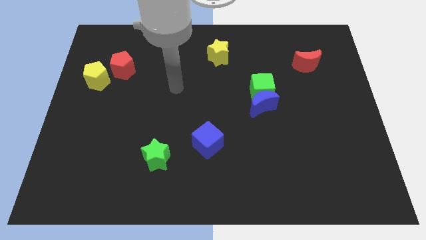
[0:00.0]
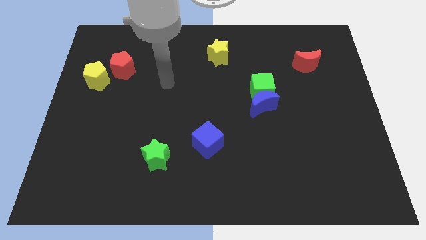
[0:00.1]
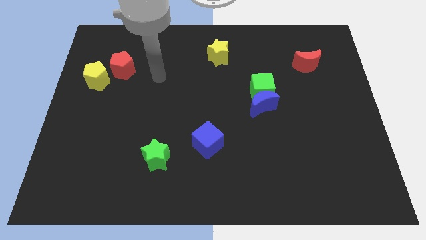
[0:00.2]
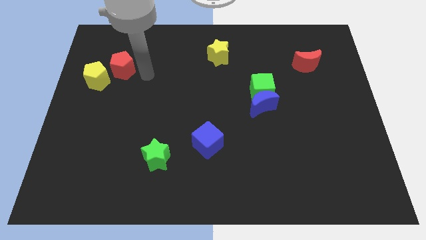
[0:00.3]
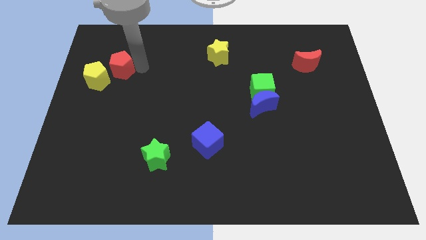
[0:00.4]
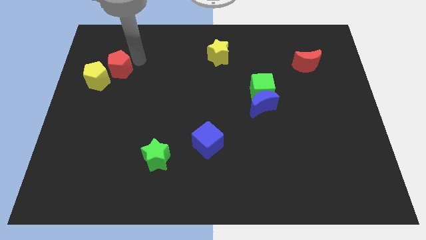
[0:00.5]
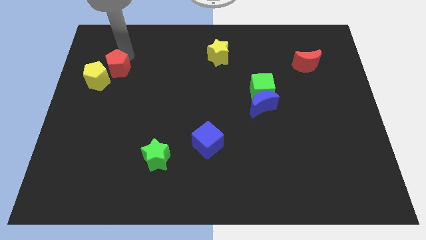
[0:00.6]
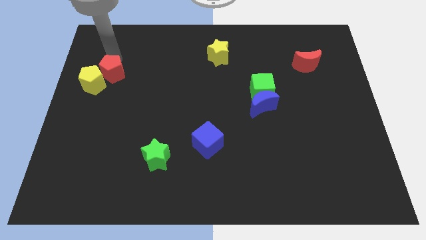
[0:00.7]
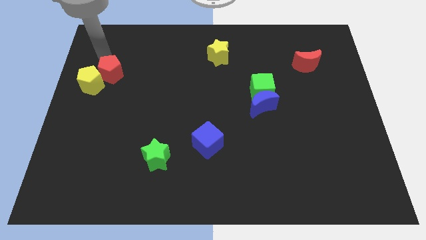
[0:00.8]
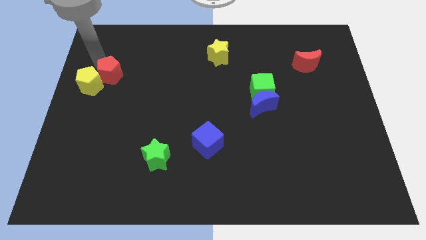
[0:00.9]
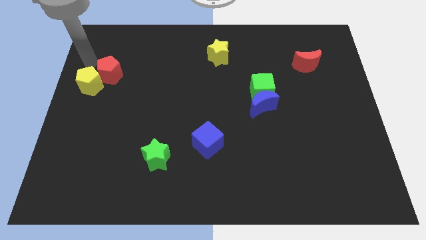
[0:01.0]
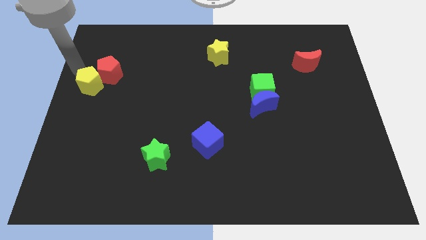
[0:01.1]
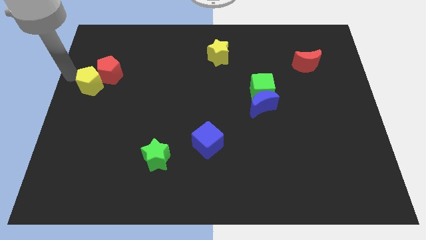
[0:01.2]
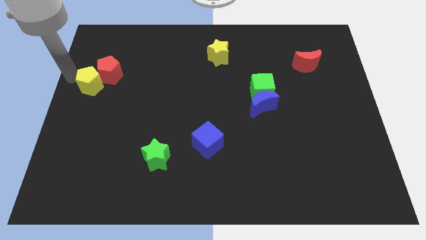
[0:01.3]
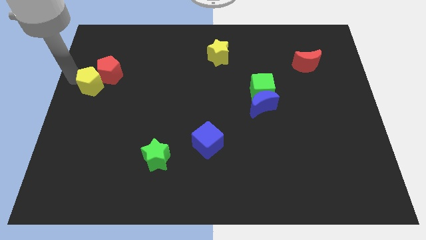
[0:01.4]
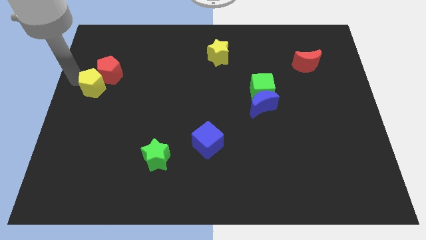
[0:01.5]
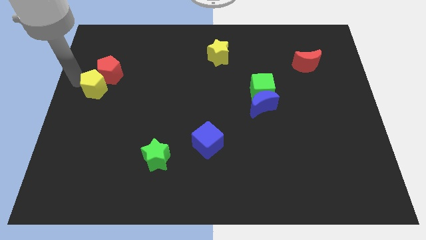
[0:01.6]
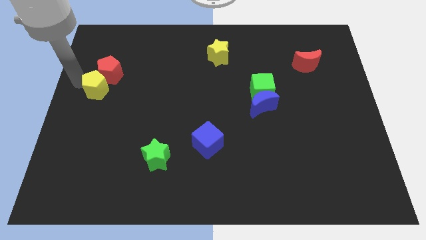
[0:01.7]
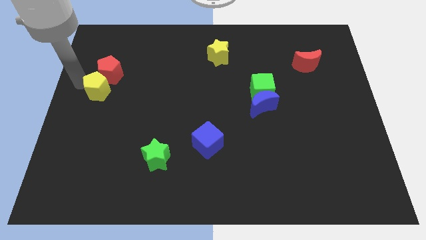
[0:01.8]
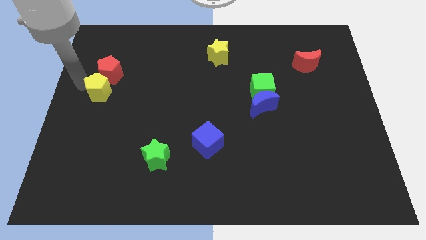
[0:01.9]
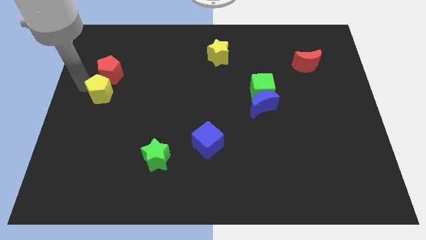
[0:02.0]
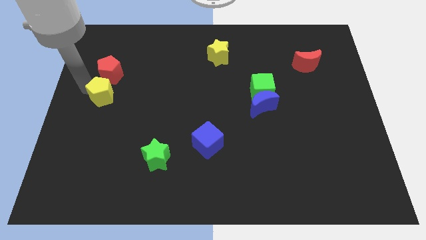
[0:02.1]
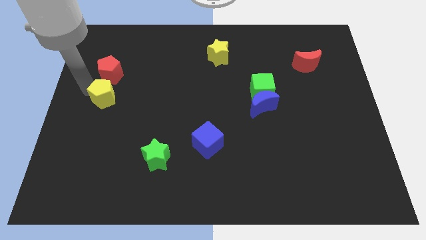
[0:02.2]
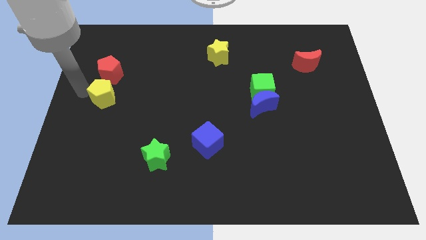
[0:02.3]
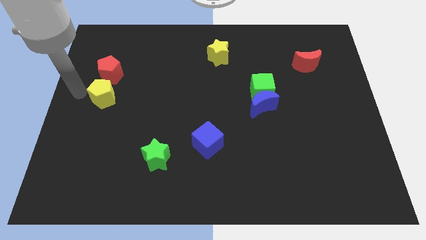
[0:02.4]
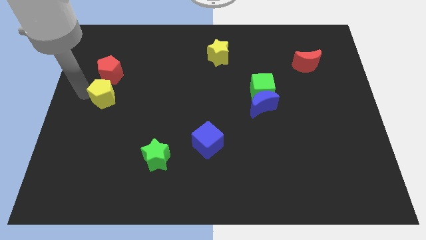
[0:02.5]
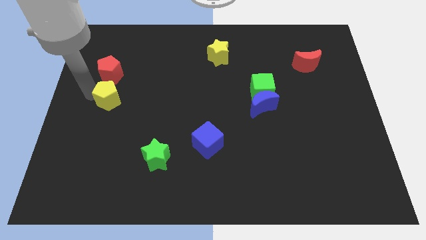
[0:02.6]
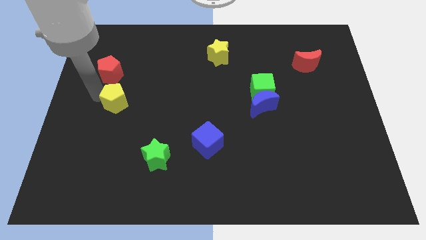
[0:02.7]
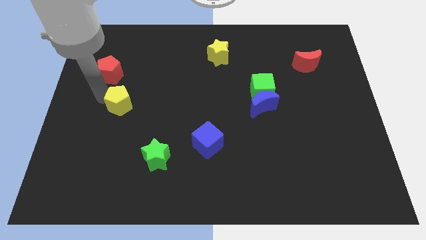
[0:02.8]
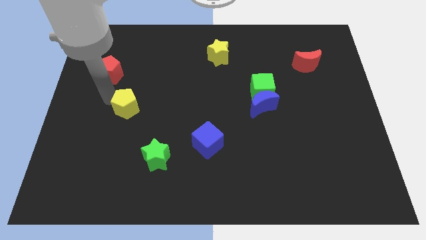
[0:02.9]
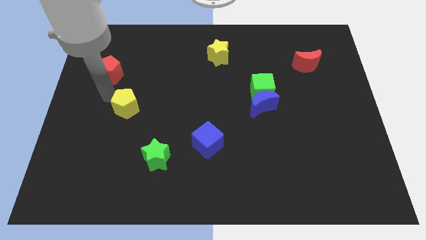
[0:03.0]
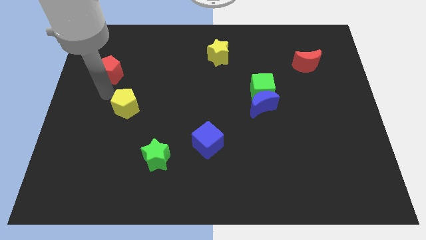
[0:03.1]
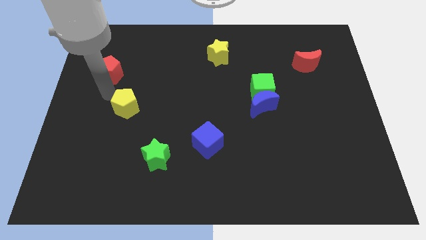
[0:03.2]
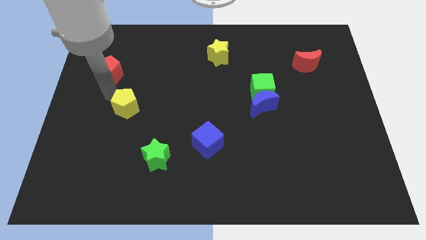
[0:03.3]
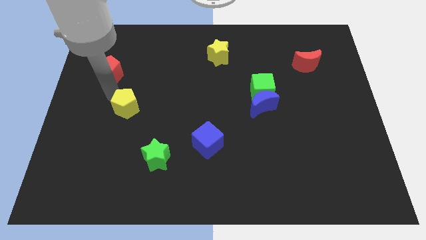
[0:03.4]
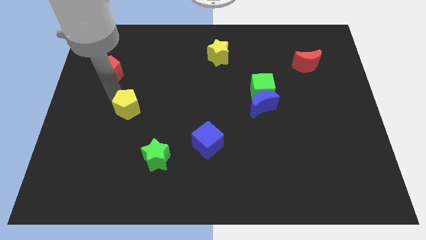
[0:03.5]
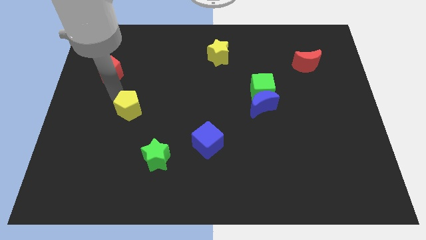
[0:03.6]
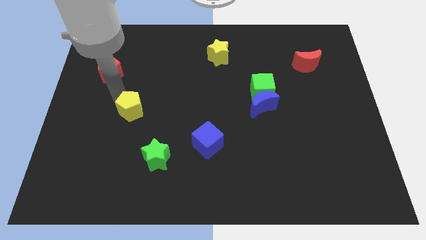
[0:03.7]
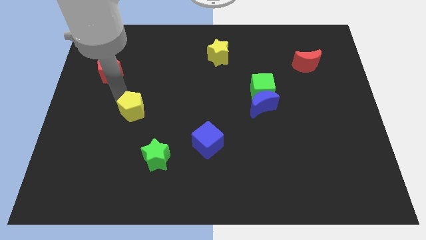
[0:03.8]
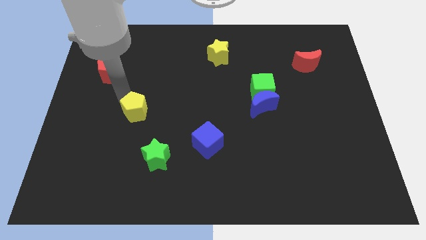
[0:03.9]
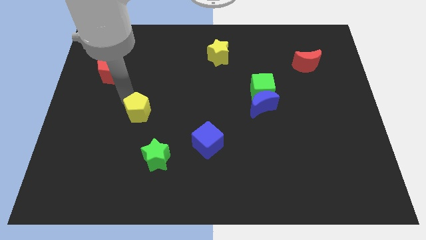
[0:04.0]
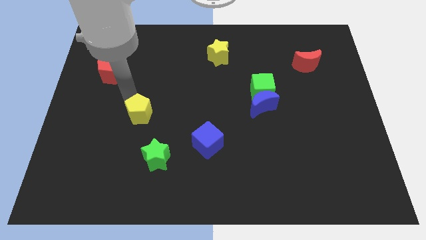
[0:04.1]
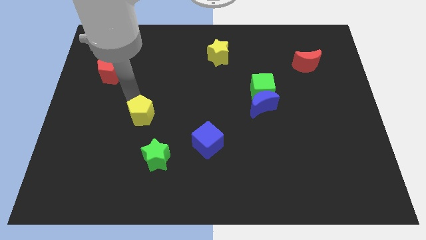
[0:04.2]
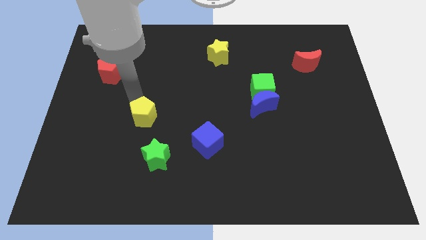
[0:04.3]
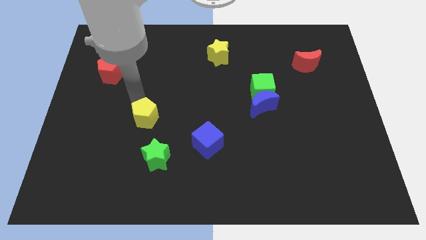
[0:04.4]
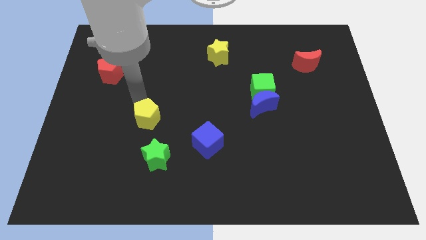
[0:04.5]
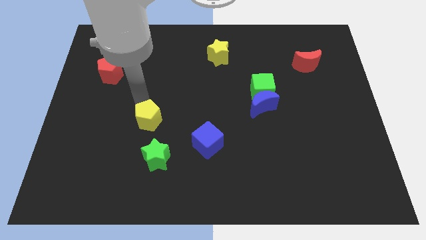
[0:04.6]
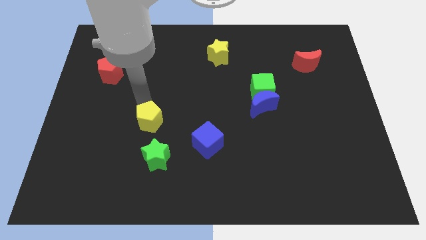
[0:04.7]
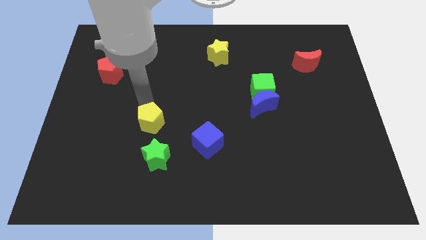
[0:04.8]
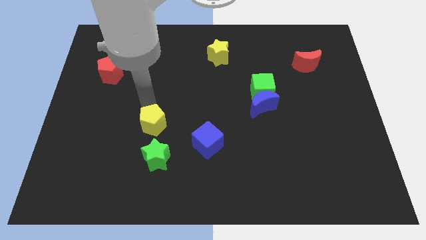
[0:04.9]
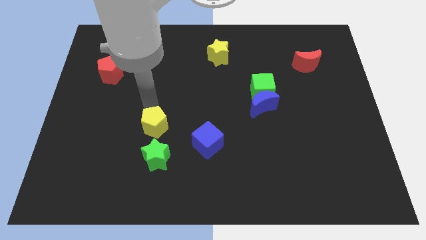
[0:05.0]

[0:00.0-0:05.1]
put the yellow pentagon left of the blue cube

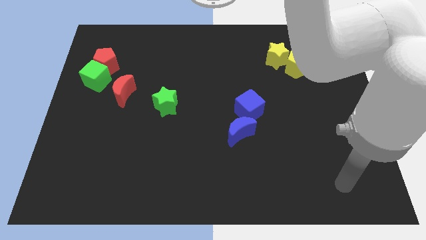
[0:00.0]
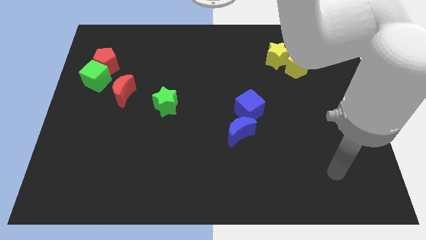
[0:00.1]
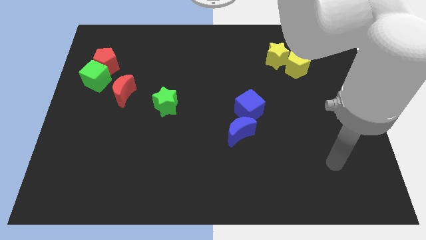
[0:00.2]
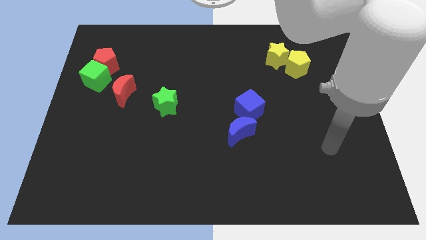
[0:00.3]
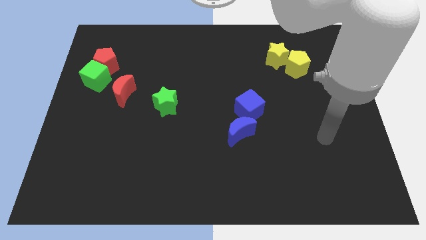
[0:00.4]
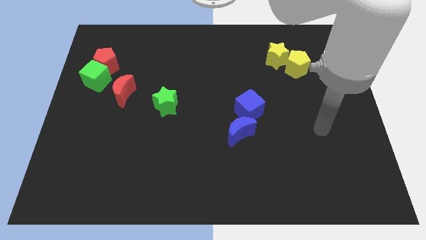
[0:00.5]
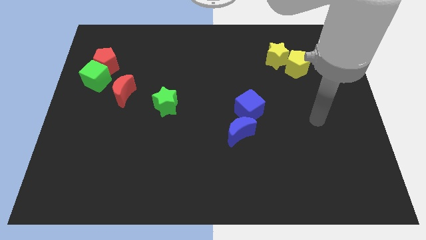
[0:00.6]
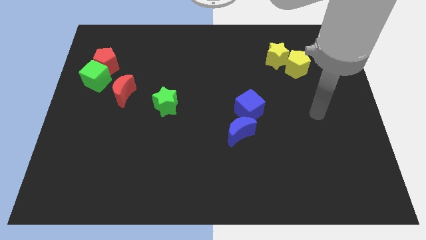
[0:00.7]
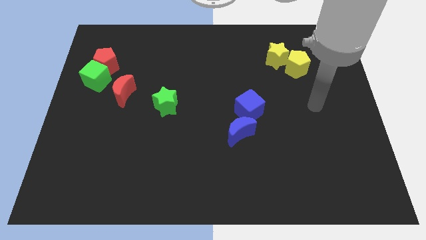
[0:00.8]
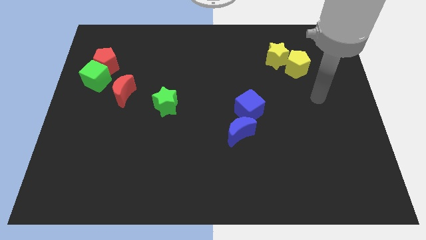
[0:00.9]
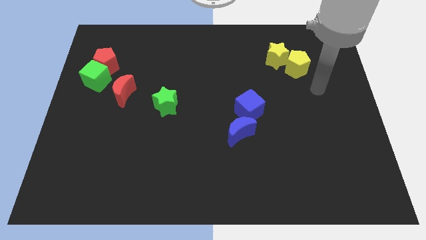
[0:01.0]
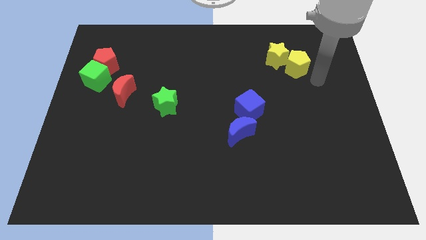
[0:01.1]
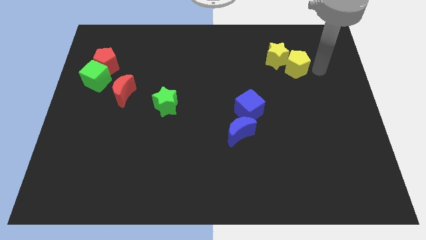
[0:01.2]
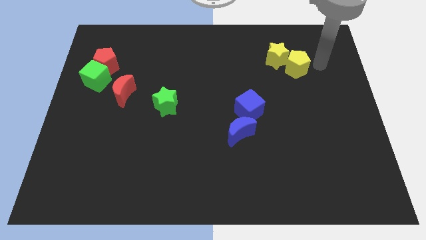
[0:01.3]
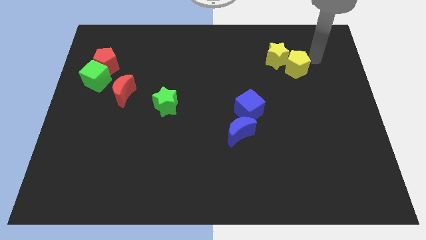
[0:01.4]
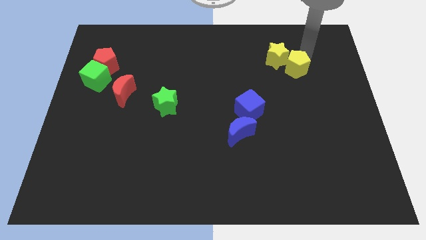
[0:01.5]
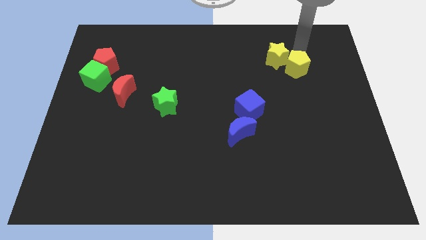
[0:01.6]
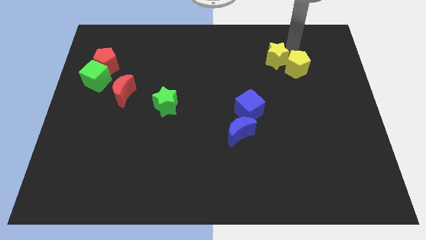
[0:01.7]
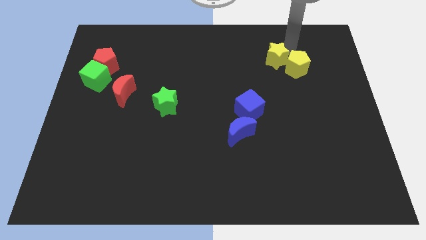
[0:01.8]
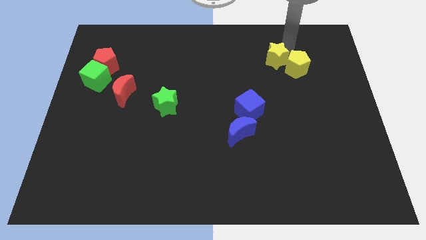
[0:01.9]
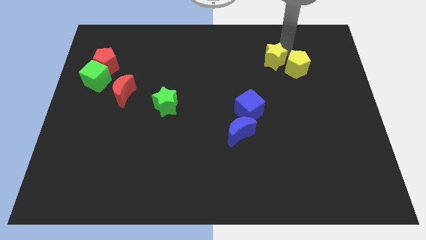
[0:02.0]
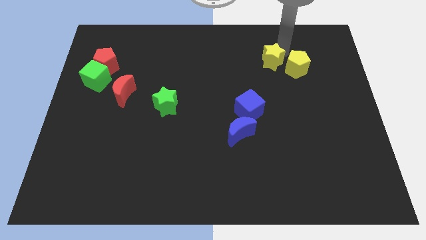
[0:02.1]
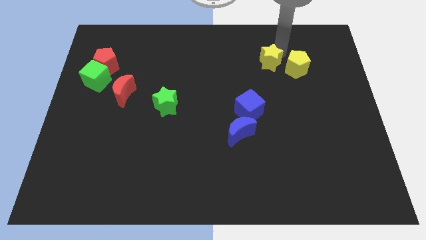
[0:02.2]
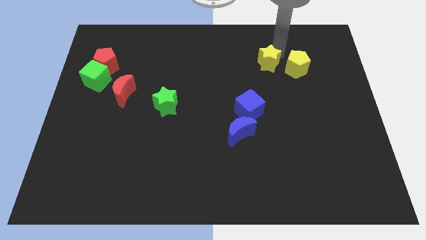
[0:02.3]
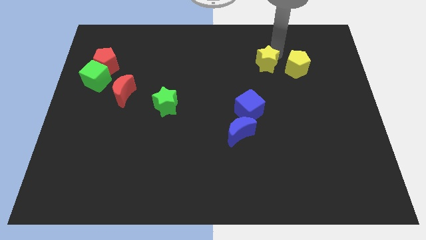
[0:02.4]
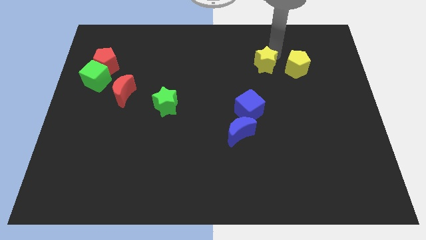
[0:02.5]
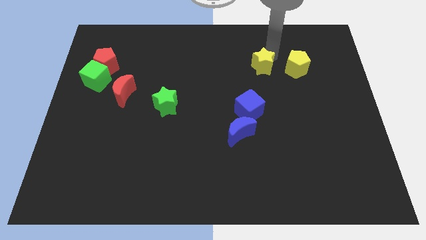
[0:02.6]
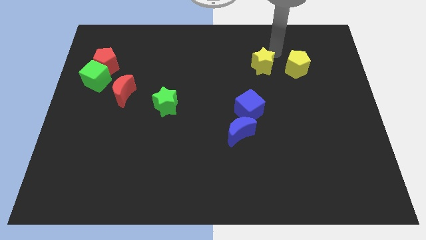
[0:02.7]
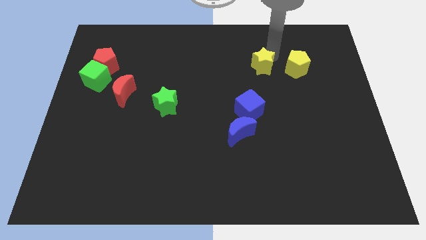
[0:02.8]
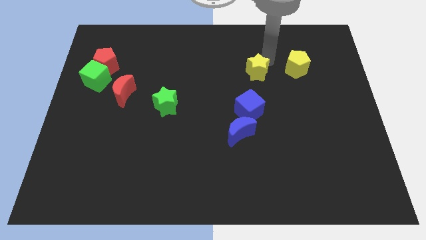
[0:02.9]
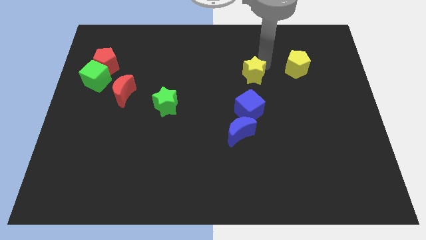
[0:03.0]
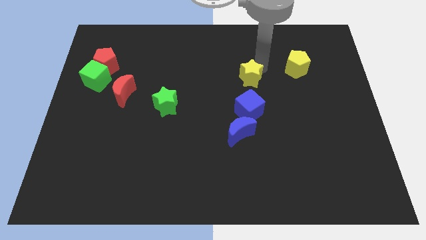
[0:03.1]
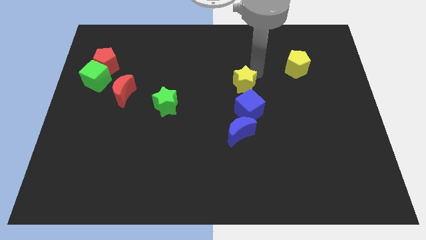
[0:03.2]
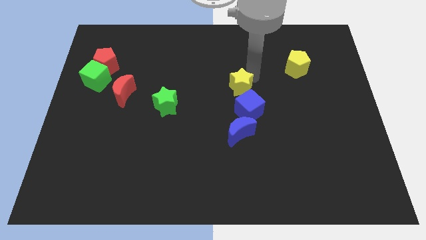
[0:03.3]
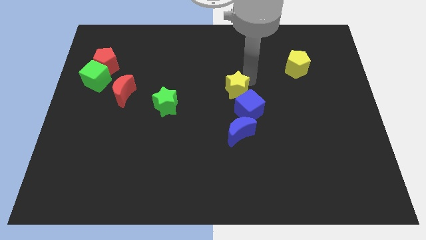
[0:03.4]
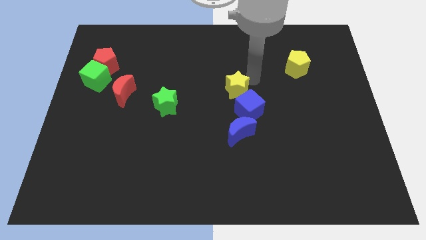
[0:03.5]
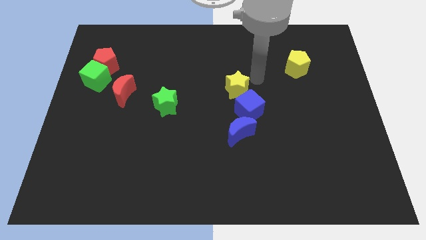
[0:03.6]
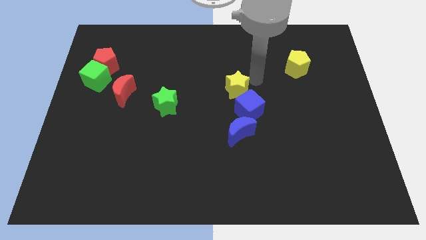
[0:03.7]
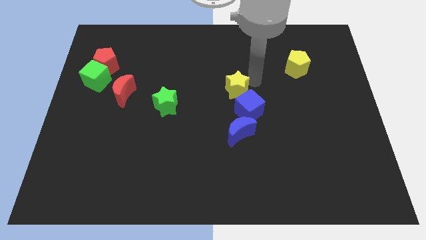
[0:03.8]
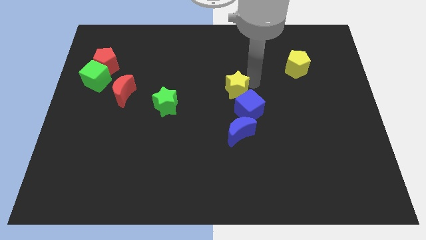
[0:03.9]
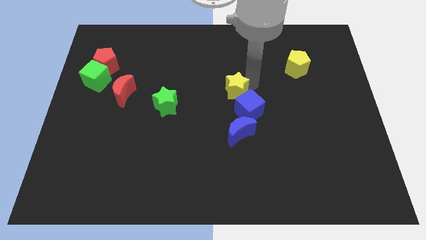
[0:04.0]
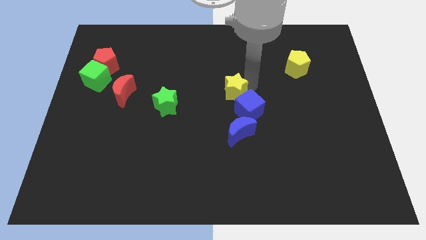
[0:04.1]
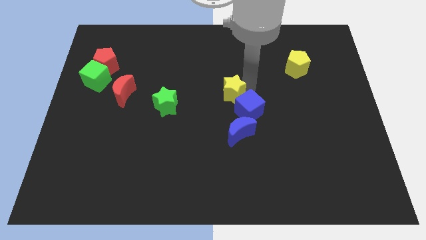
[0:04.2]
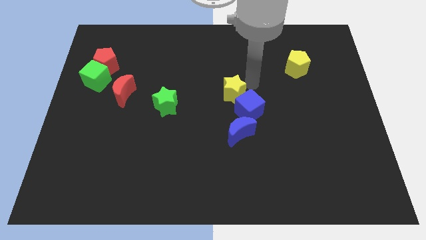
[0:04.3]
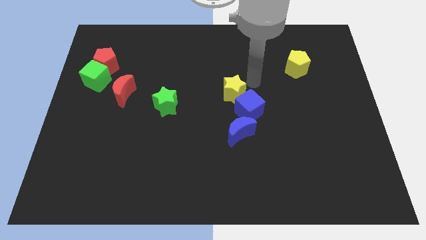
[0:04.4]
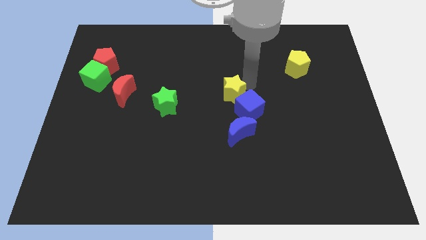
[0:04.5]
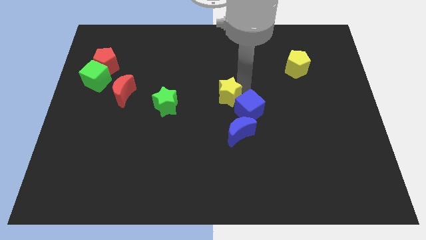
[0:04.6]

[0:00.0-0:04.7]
slide the yellow star to the right of the green star
